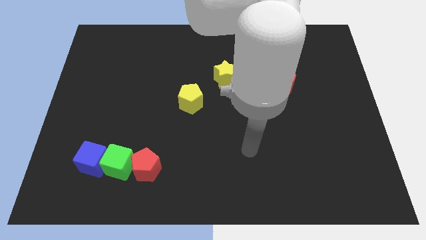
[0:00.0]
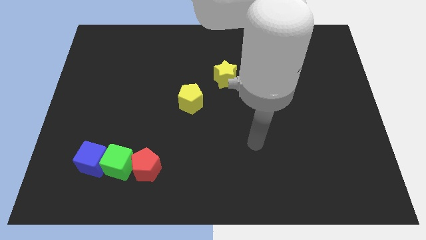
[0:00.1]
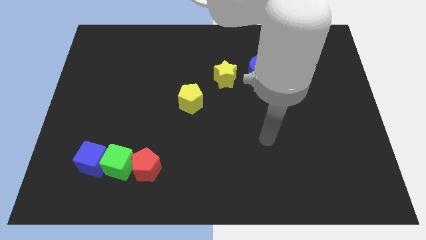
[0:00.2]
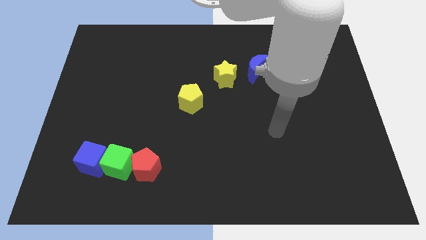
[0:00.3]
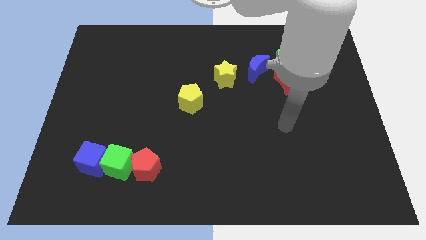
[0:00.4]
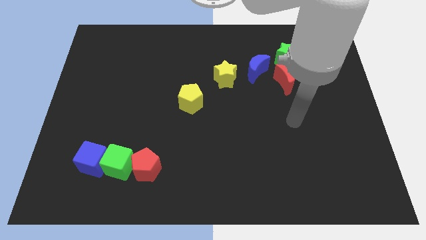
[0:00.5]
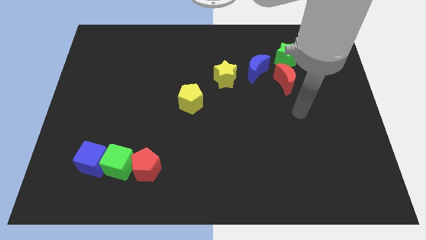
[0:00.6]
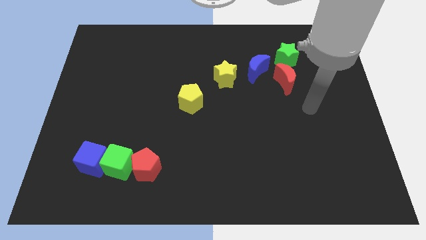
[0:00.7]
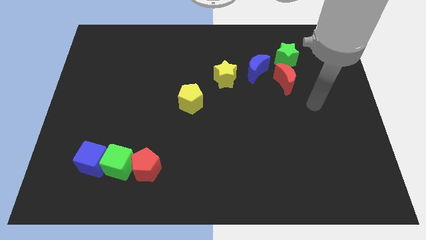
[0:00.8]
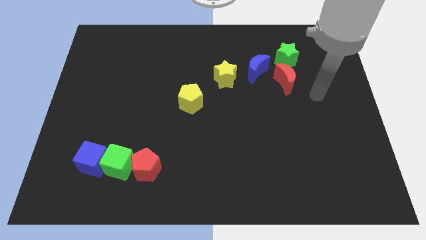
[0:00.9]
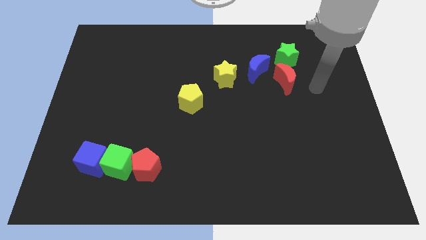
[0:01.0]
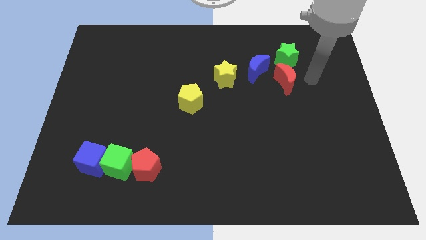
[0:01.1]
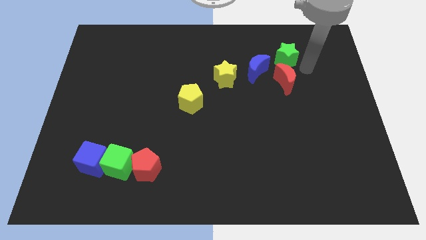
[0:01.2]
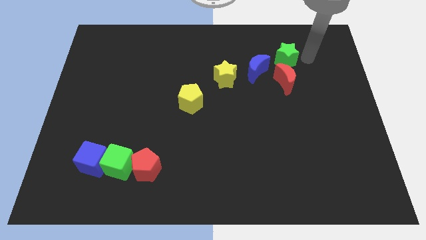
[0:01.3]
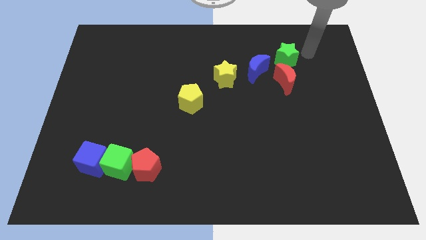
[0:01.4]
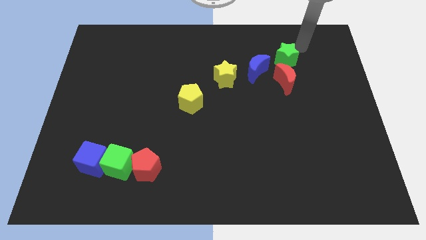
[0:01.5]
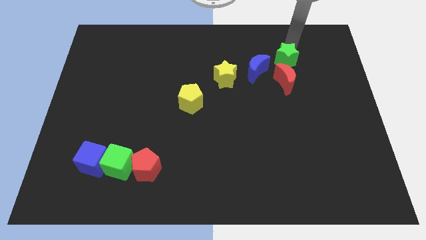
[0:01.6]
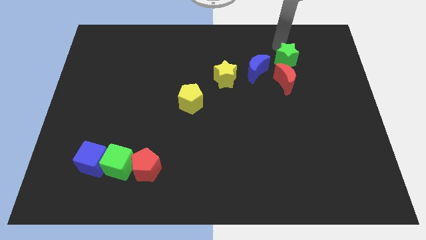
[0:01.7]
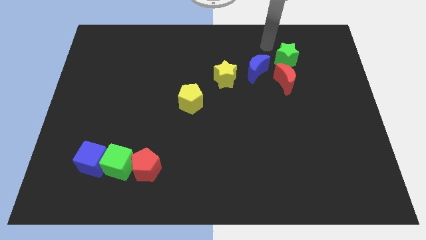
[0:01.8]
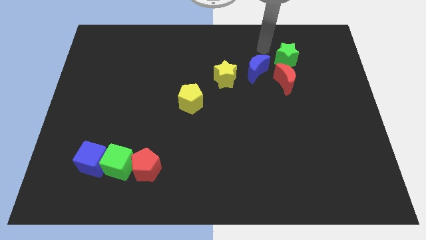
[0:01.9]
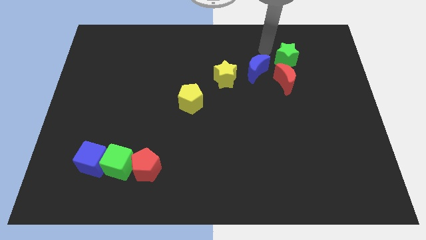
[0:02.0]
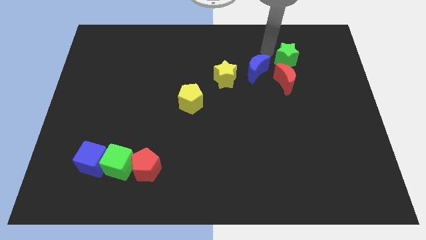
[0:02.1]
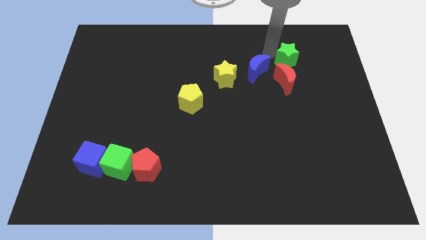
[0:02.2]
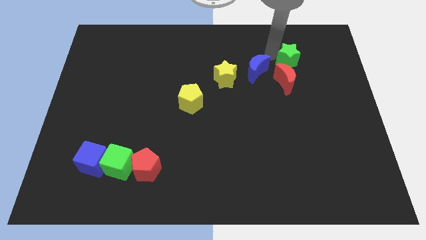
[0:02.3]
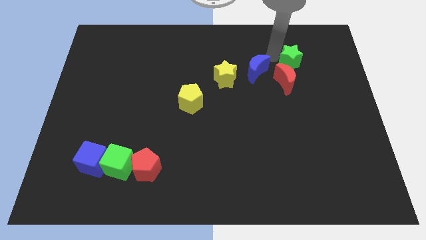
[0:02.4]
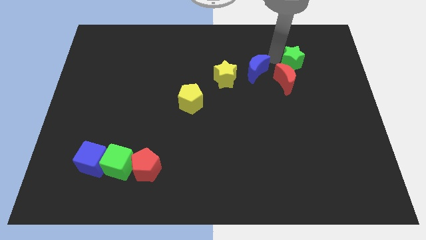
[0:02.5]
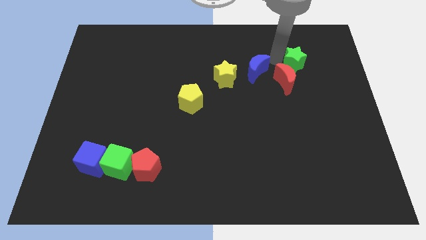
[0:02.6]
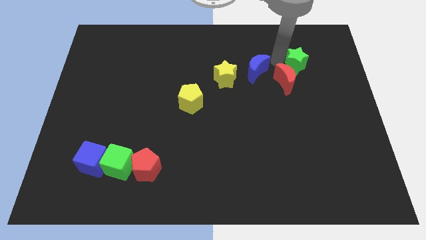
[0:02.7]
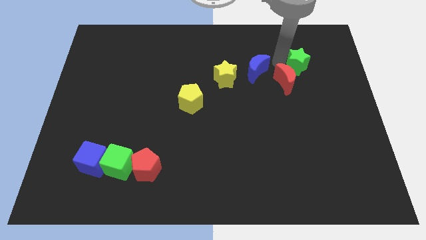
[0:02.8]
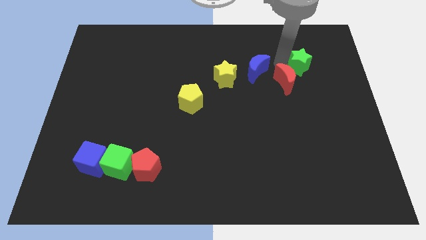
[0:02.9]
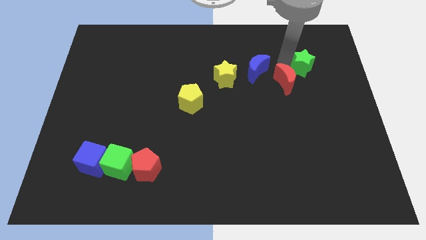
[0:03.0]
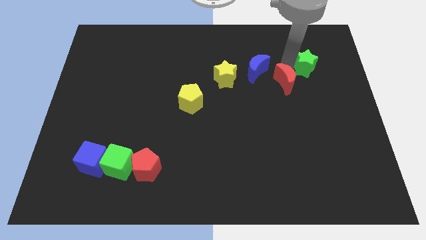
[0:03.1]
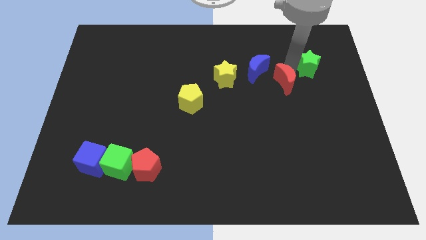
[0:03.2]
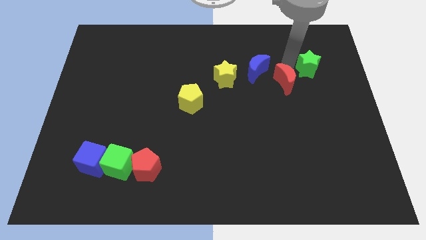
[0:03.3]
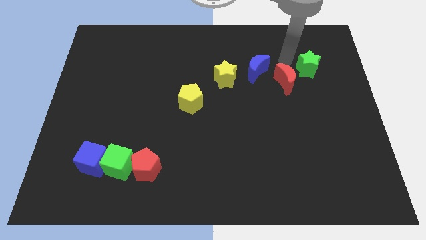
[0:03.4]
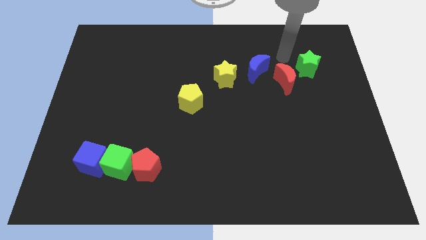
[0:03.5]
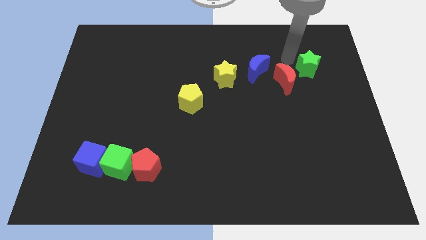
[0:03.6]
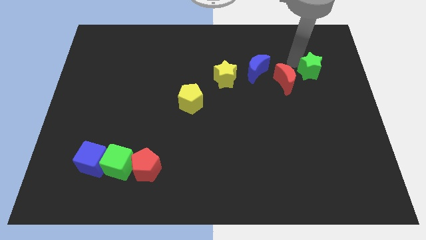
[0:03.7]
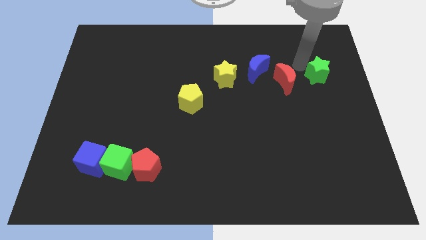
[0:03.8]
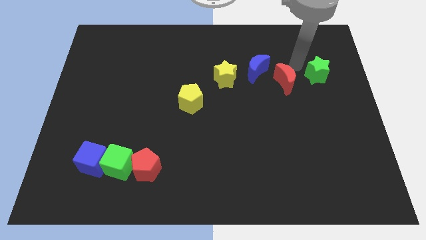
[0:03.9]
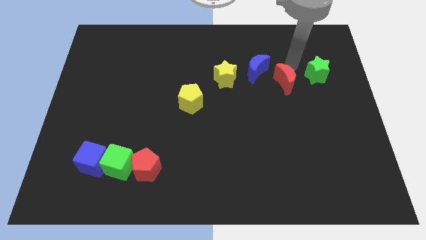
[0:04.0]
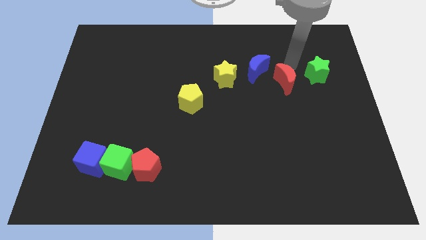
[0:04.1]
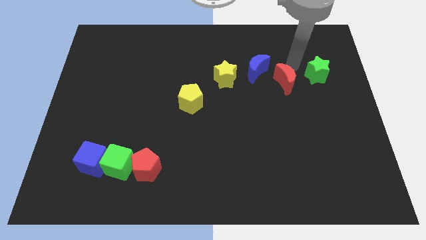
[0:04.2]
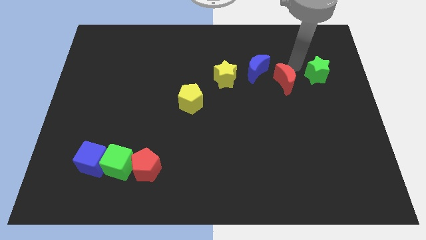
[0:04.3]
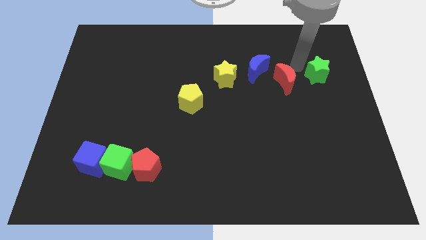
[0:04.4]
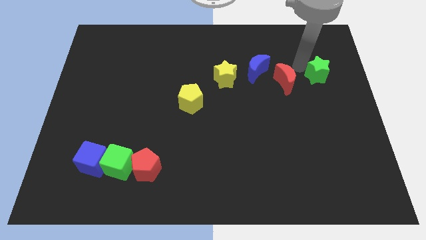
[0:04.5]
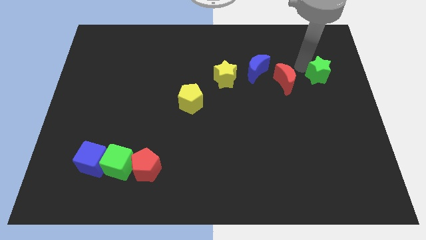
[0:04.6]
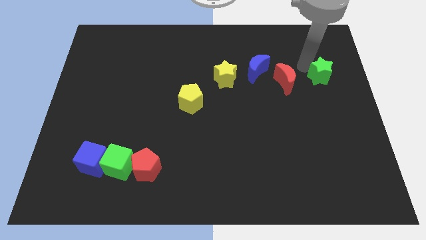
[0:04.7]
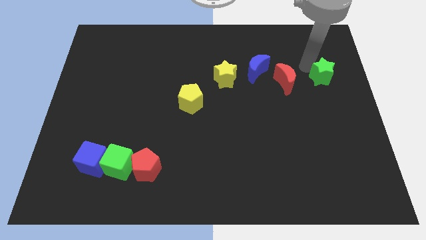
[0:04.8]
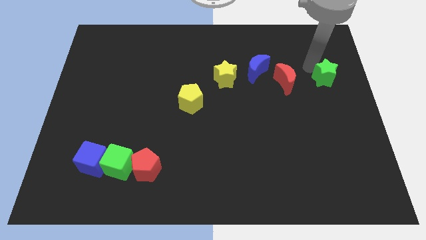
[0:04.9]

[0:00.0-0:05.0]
put the green star to the center right
